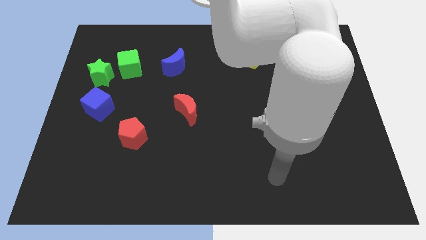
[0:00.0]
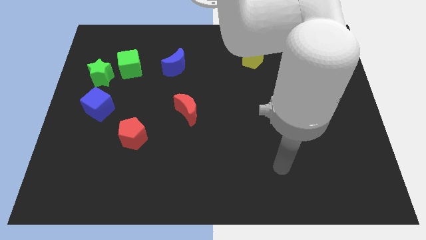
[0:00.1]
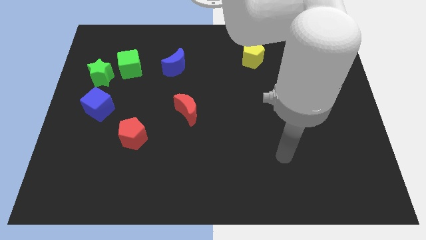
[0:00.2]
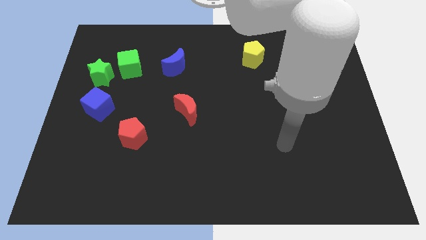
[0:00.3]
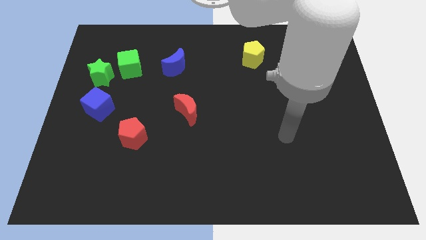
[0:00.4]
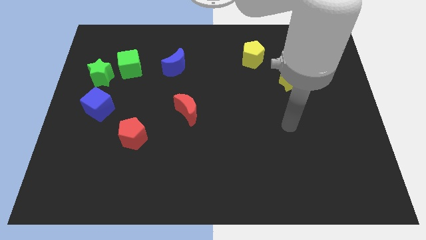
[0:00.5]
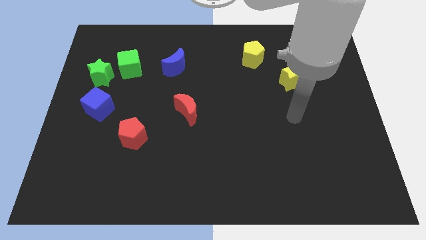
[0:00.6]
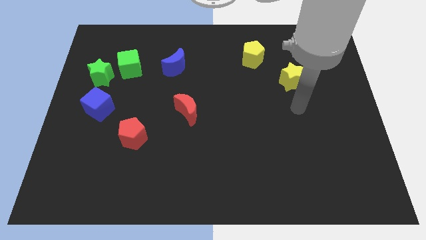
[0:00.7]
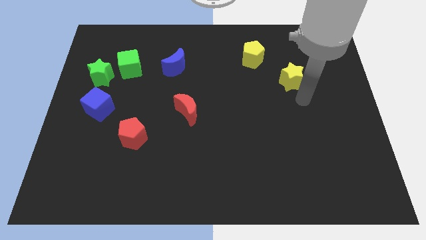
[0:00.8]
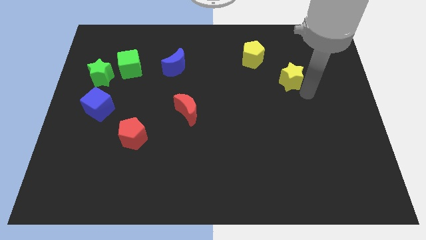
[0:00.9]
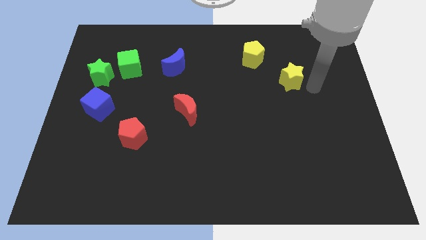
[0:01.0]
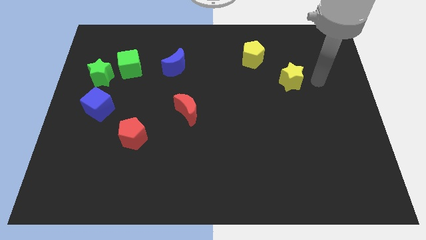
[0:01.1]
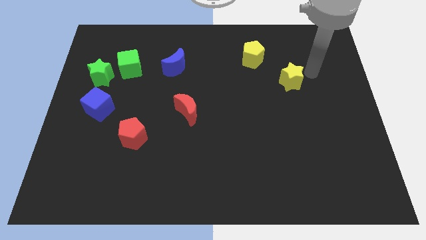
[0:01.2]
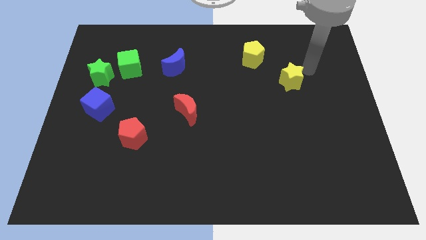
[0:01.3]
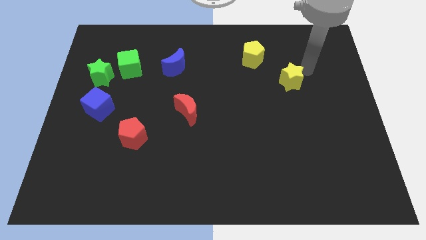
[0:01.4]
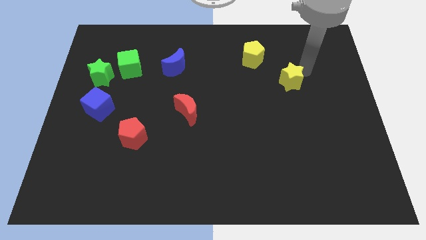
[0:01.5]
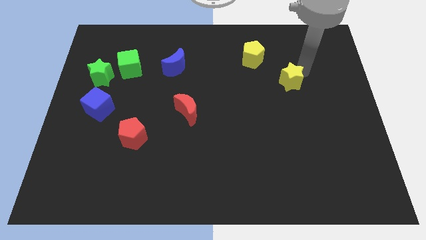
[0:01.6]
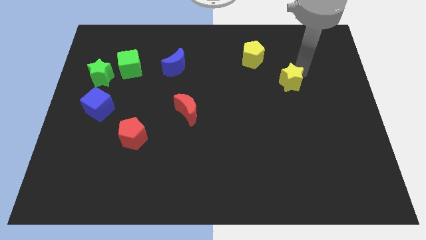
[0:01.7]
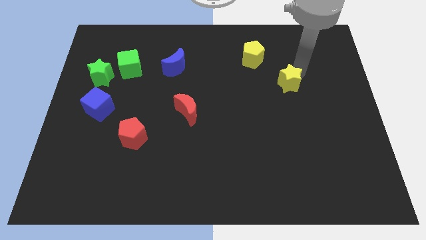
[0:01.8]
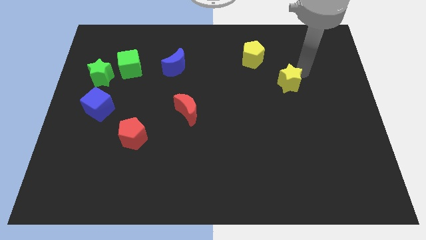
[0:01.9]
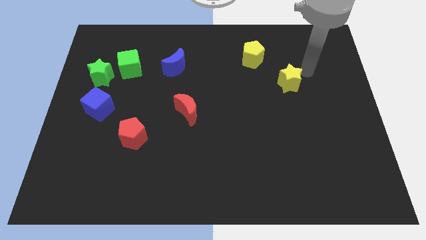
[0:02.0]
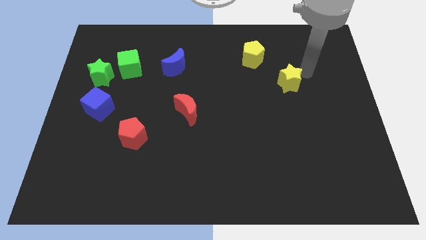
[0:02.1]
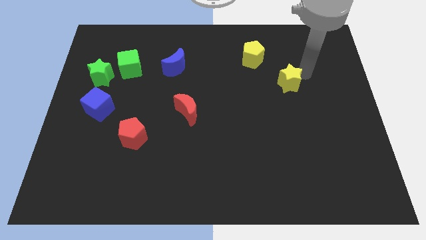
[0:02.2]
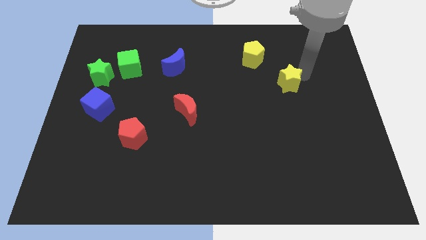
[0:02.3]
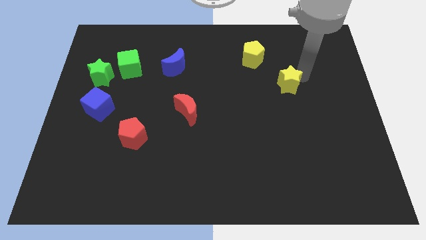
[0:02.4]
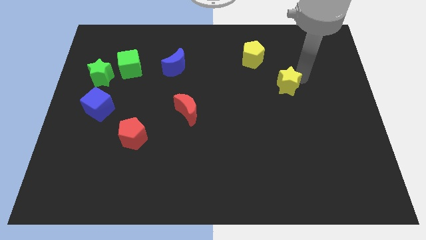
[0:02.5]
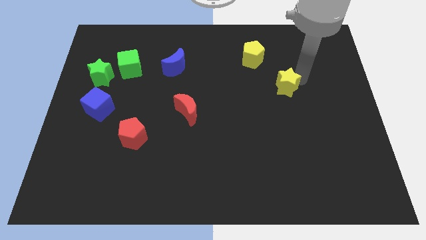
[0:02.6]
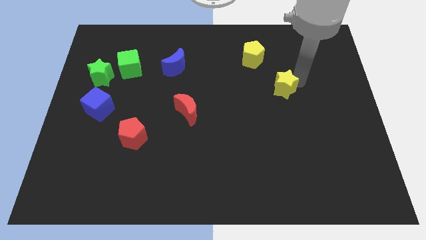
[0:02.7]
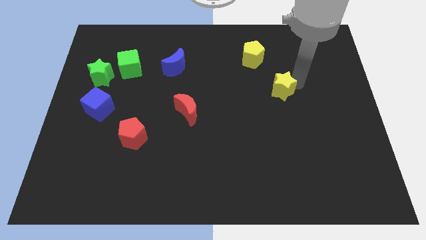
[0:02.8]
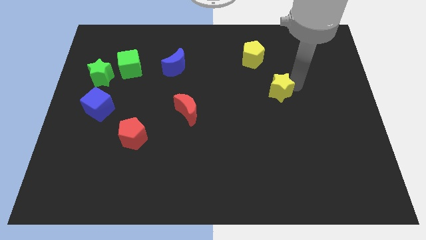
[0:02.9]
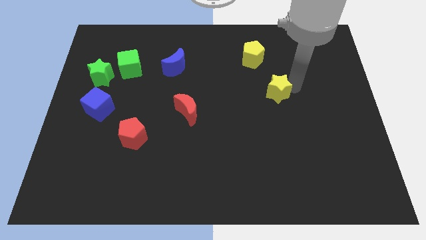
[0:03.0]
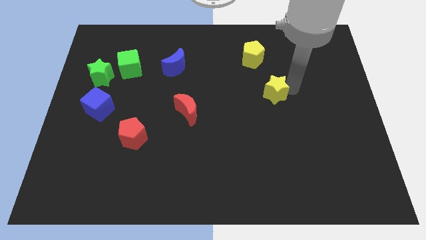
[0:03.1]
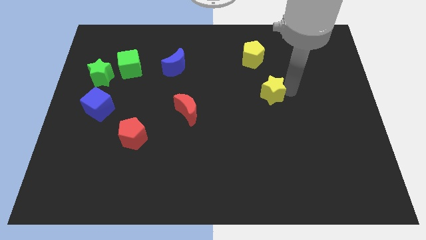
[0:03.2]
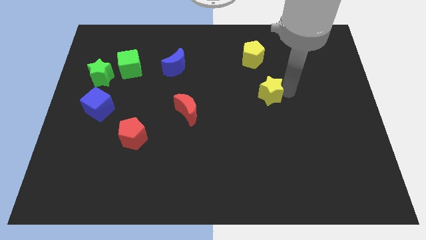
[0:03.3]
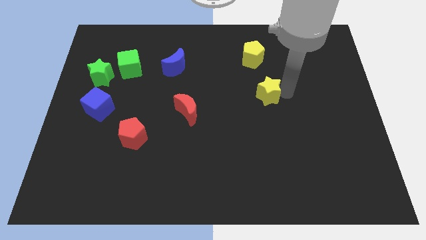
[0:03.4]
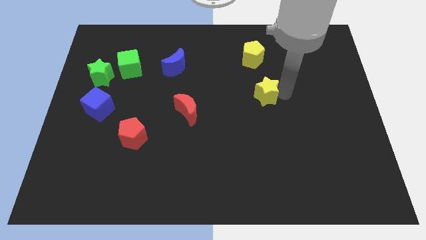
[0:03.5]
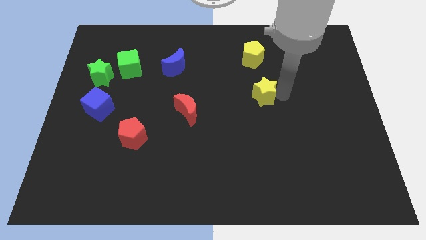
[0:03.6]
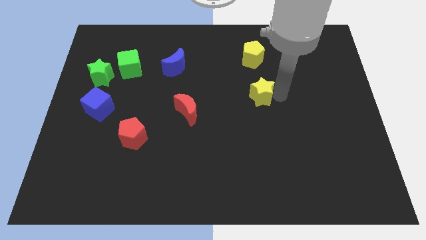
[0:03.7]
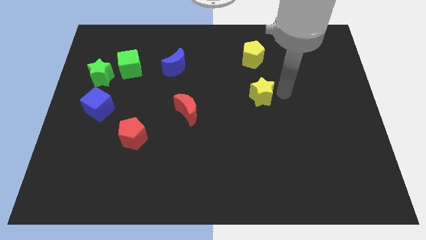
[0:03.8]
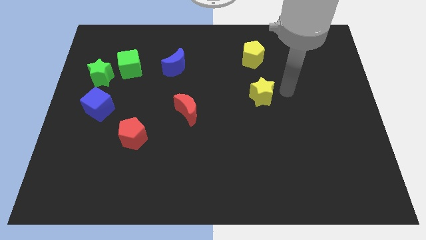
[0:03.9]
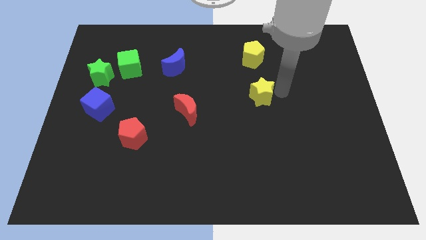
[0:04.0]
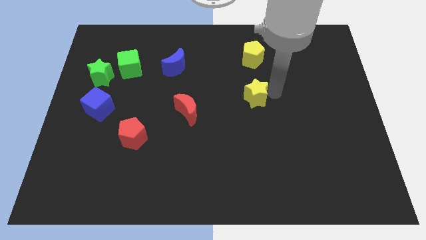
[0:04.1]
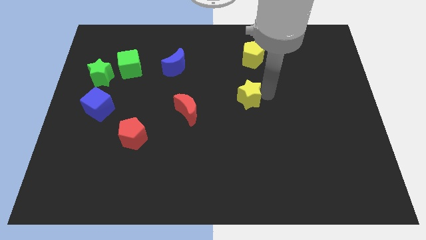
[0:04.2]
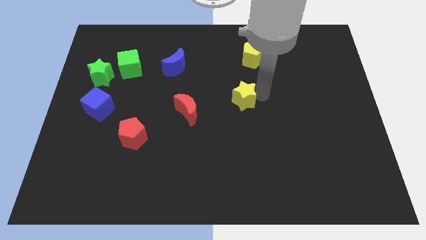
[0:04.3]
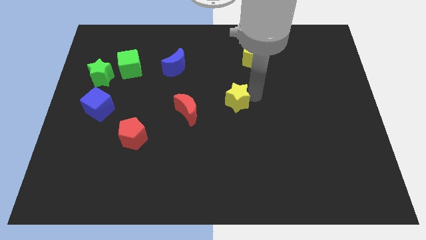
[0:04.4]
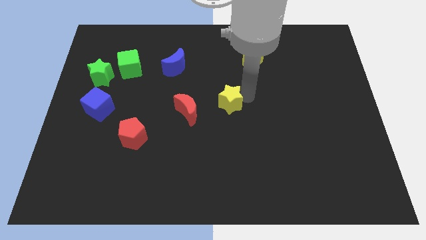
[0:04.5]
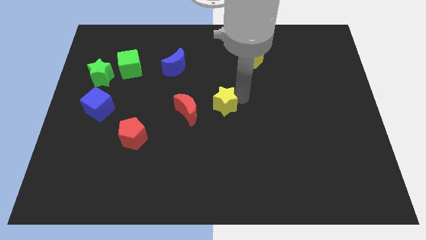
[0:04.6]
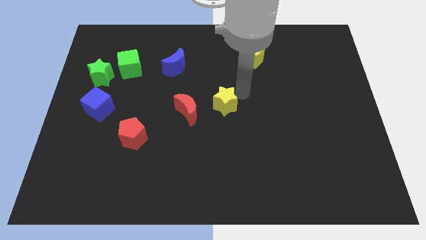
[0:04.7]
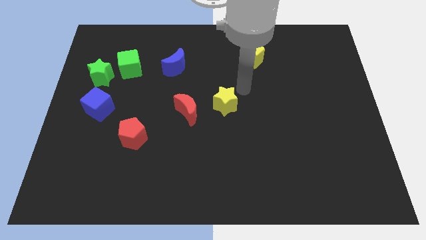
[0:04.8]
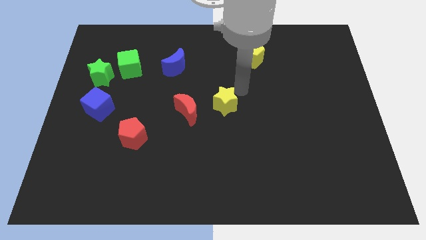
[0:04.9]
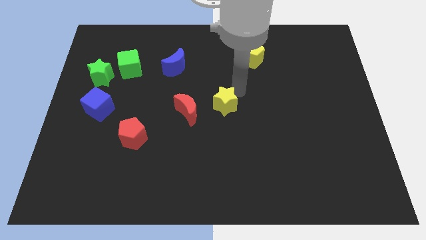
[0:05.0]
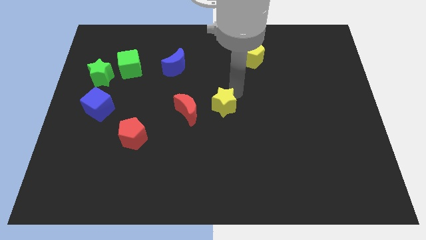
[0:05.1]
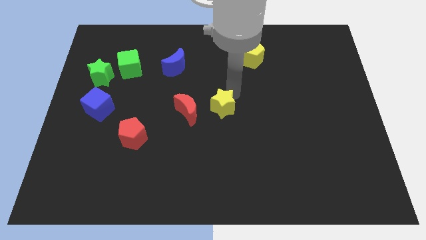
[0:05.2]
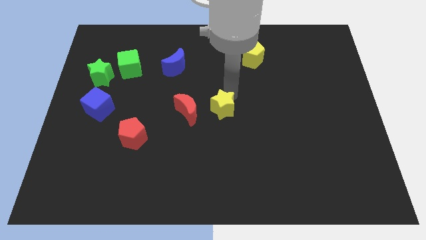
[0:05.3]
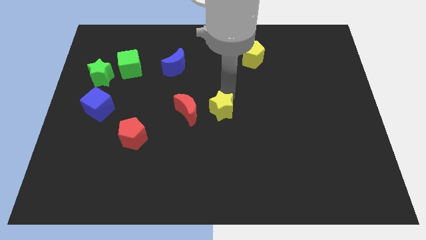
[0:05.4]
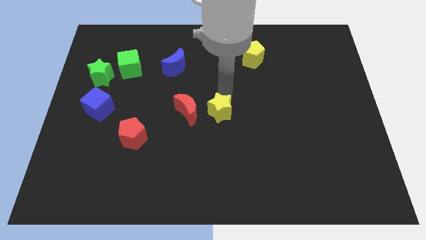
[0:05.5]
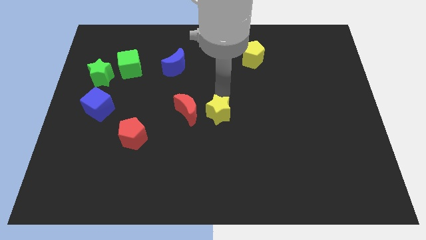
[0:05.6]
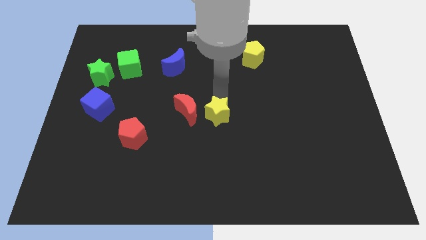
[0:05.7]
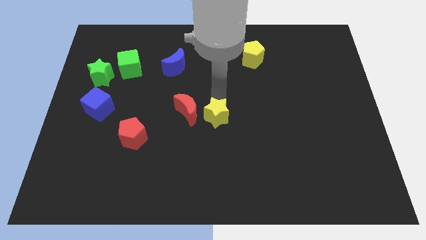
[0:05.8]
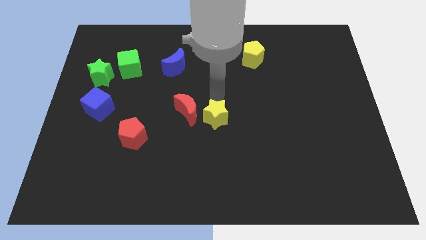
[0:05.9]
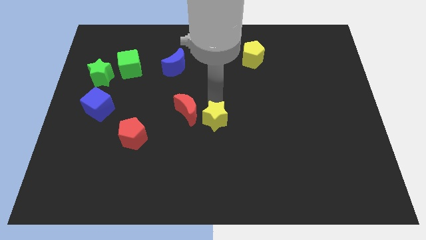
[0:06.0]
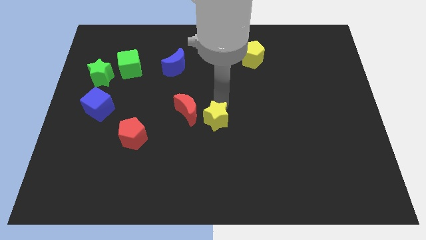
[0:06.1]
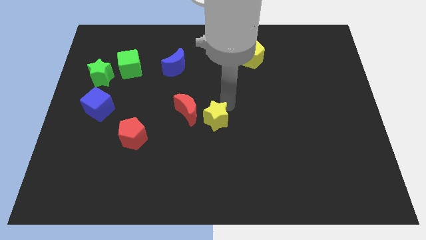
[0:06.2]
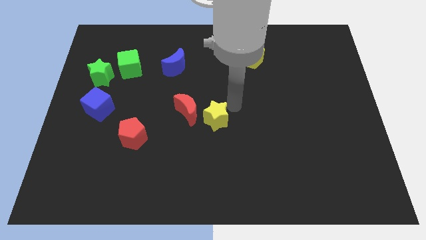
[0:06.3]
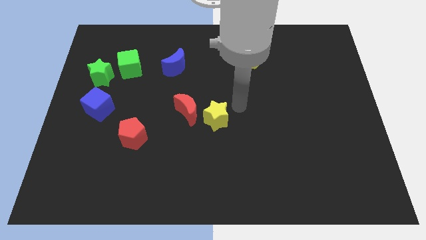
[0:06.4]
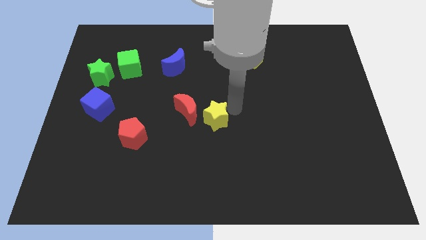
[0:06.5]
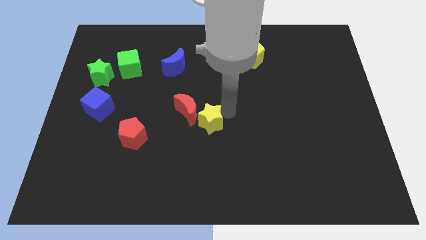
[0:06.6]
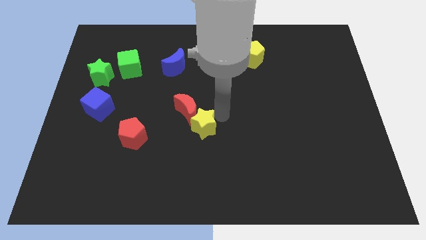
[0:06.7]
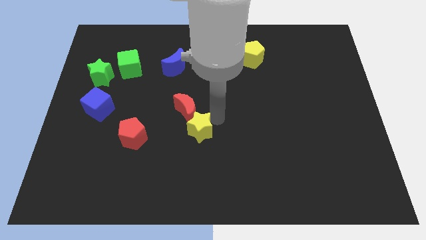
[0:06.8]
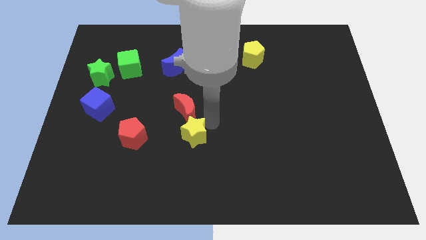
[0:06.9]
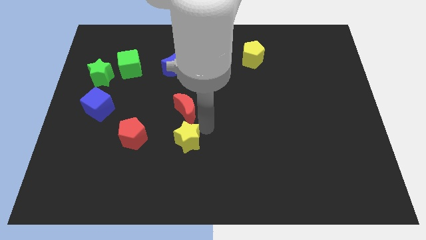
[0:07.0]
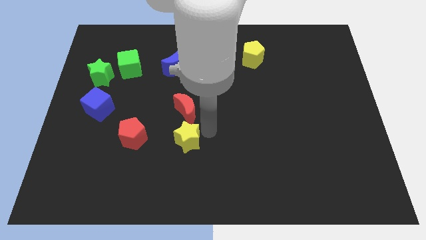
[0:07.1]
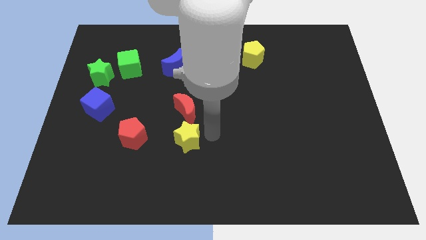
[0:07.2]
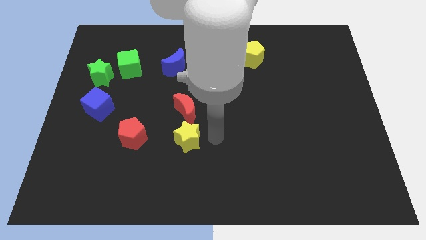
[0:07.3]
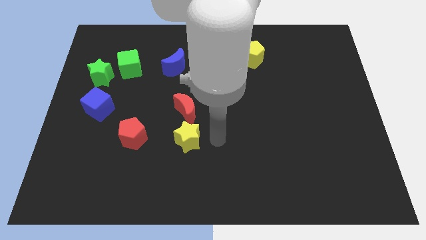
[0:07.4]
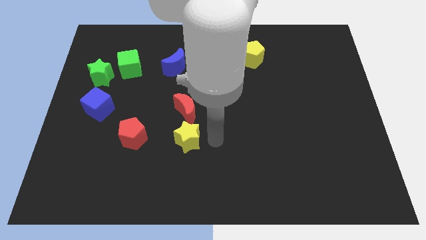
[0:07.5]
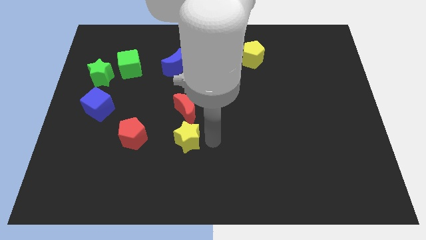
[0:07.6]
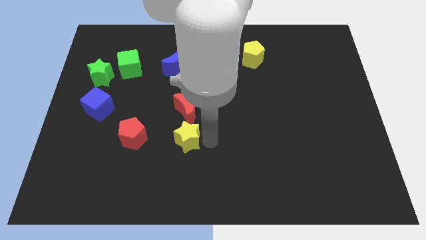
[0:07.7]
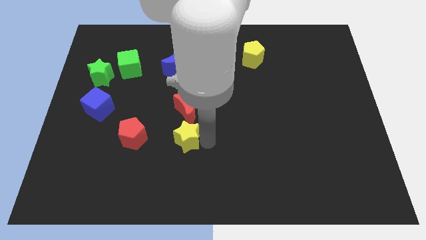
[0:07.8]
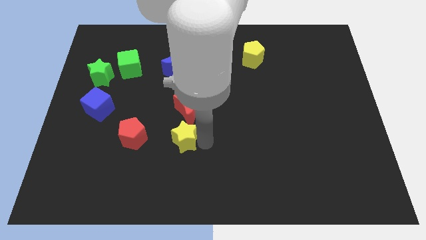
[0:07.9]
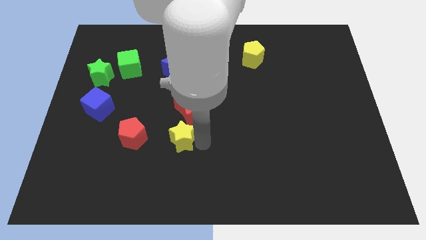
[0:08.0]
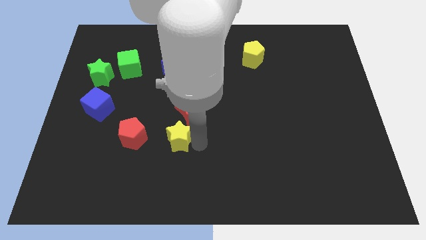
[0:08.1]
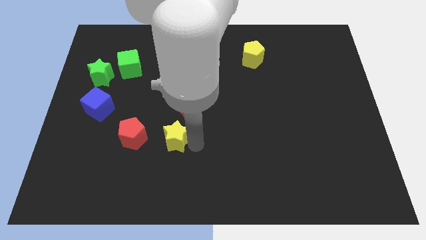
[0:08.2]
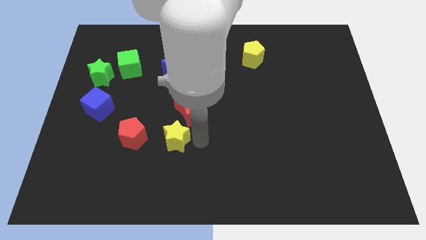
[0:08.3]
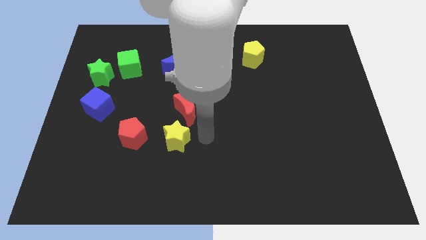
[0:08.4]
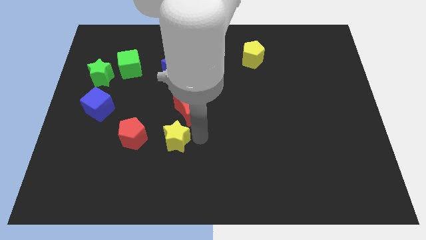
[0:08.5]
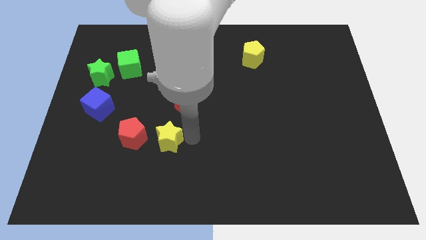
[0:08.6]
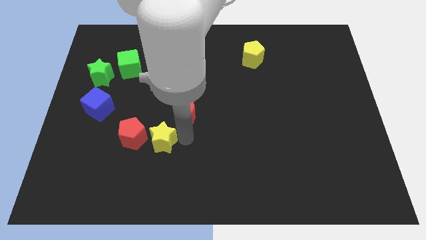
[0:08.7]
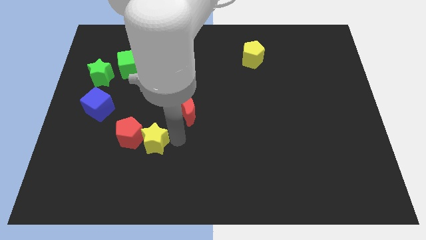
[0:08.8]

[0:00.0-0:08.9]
move the yellow star close to the red pentagon
